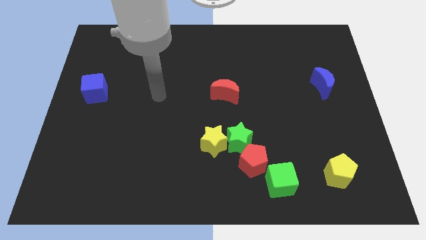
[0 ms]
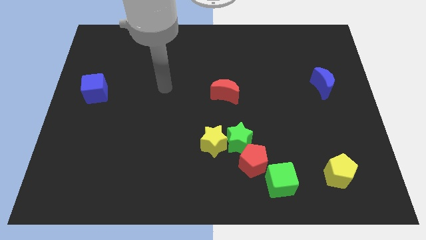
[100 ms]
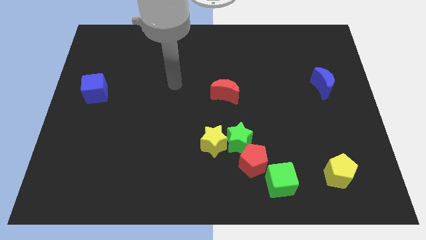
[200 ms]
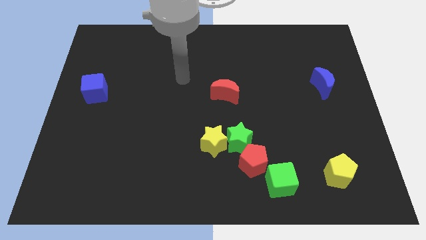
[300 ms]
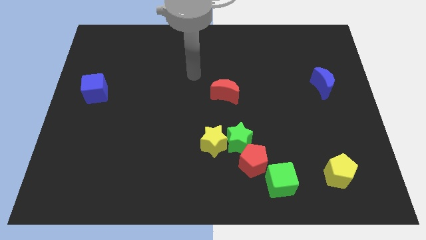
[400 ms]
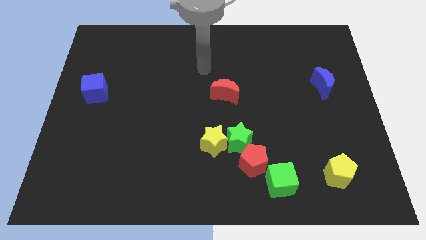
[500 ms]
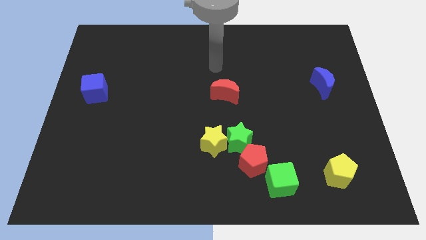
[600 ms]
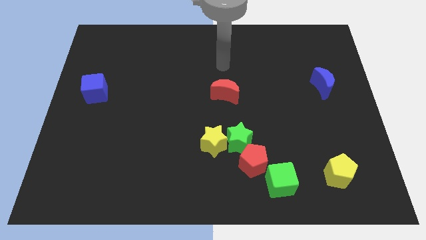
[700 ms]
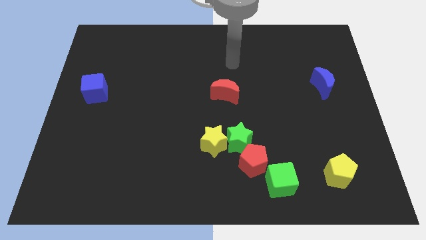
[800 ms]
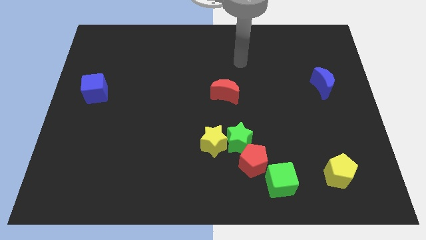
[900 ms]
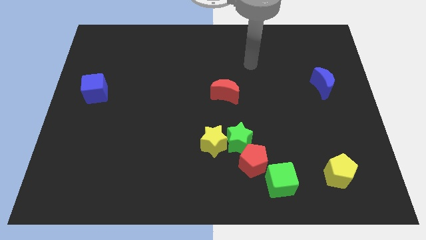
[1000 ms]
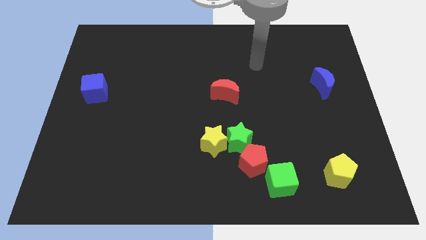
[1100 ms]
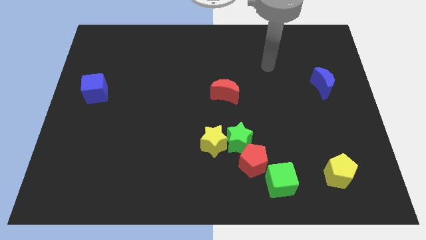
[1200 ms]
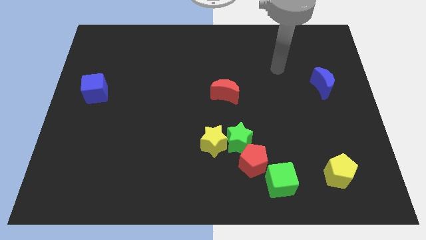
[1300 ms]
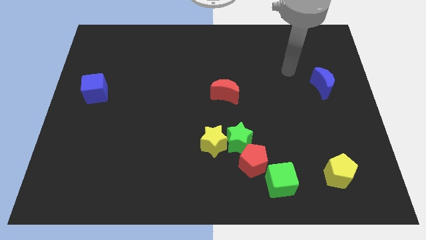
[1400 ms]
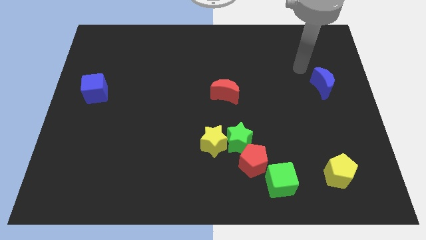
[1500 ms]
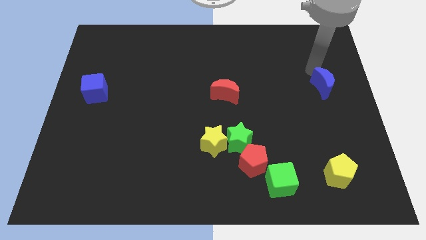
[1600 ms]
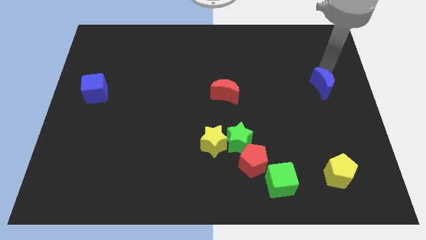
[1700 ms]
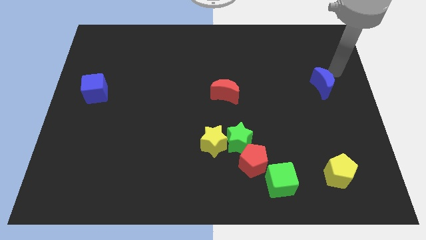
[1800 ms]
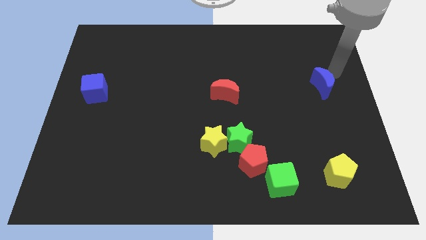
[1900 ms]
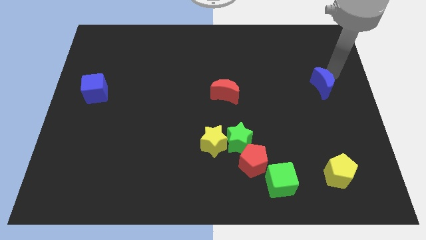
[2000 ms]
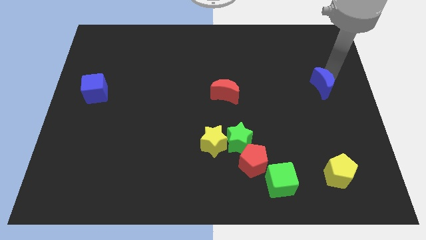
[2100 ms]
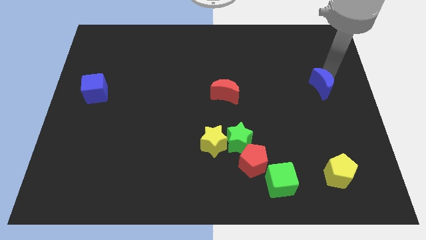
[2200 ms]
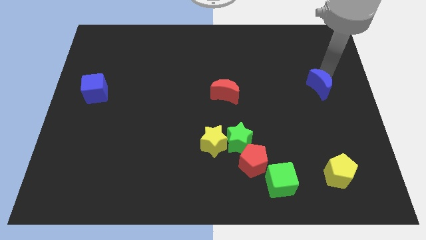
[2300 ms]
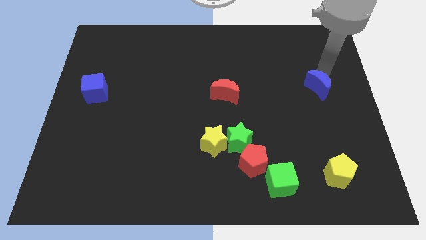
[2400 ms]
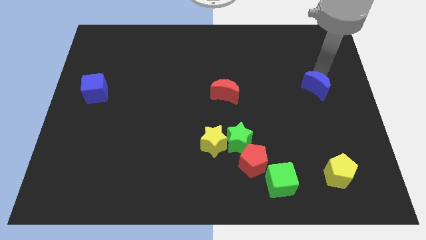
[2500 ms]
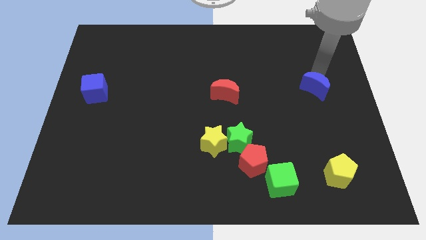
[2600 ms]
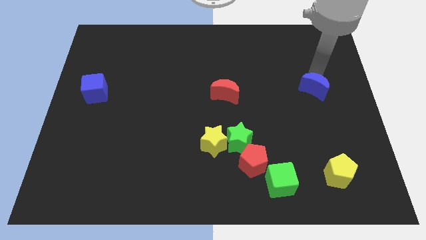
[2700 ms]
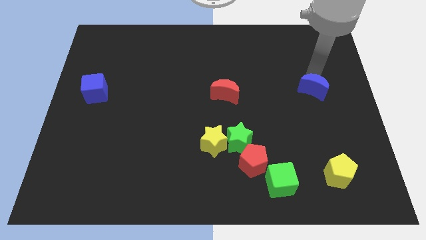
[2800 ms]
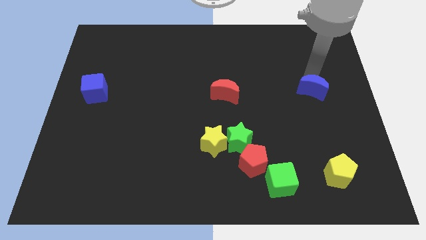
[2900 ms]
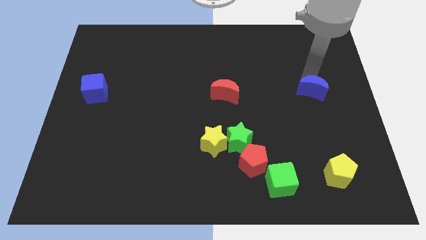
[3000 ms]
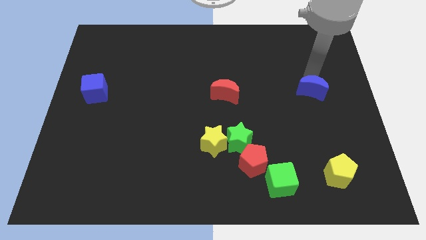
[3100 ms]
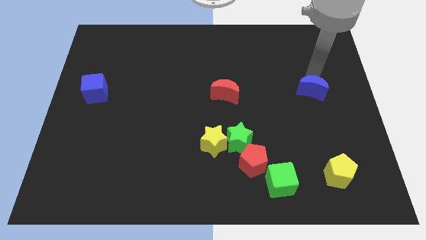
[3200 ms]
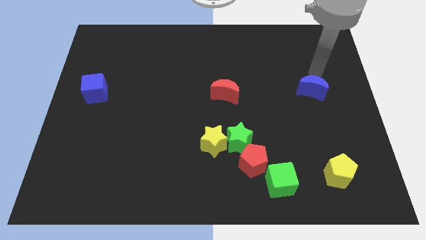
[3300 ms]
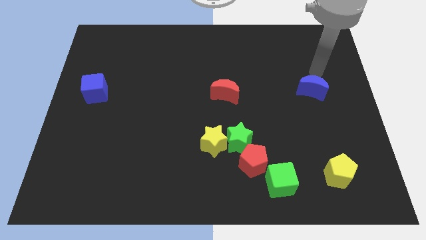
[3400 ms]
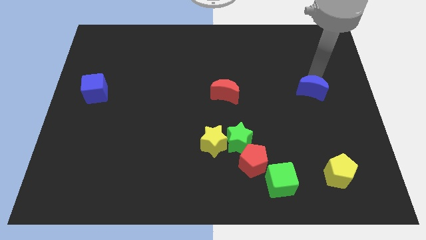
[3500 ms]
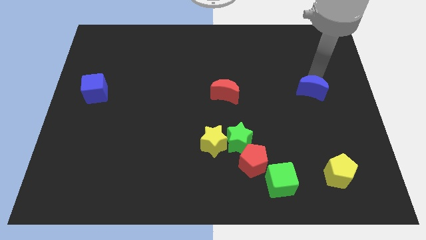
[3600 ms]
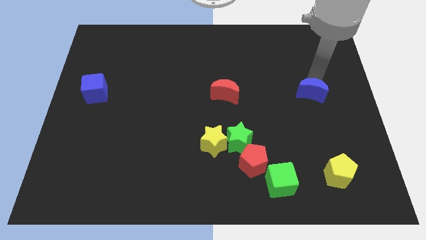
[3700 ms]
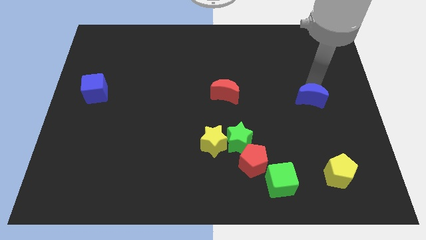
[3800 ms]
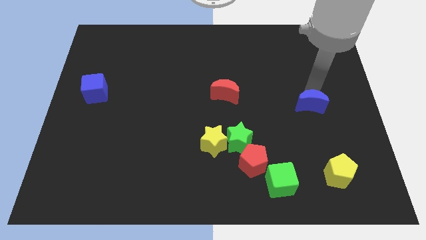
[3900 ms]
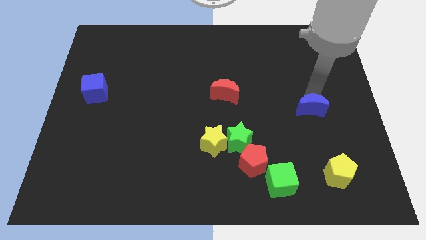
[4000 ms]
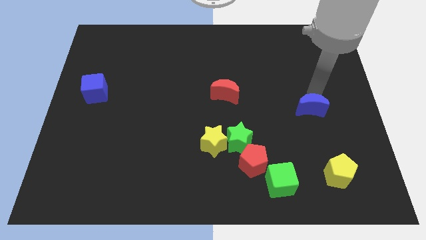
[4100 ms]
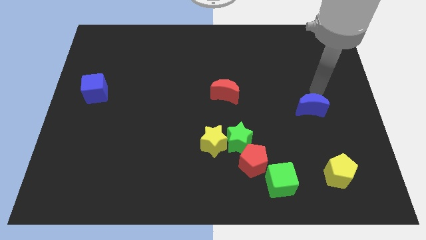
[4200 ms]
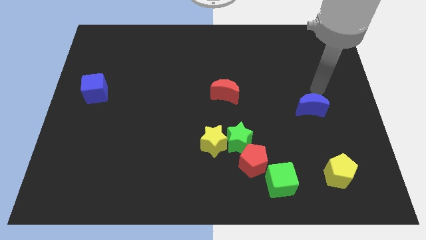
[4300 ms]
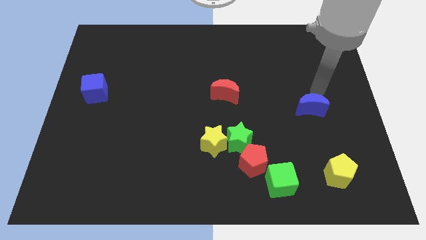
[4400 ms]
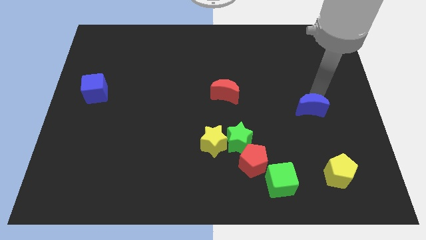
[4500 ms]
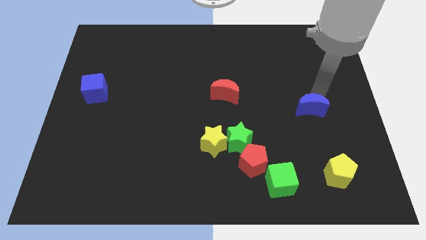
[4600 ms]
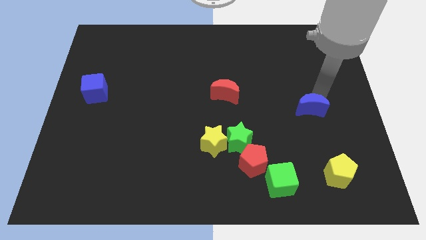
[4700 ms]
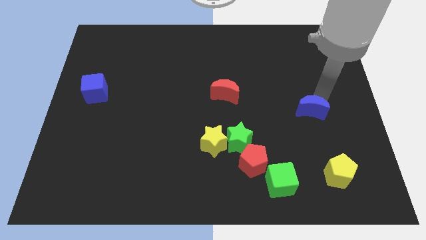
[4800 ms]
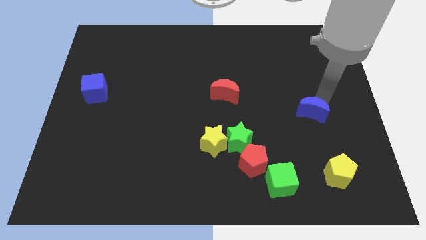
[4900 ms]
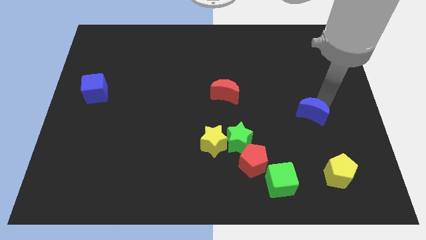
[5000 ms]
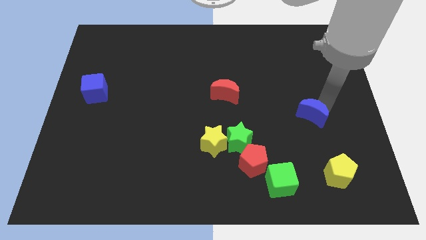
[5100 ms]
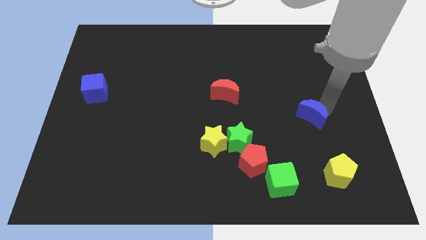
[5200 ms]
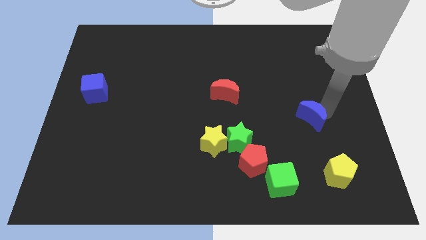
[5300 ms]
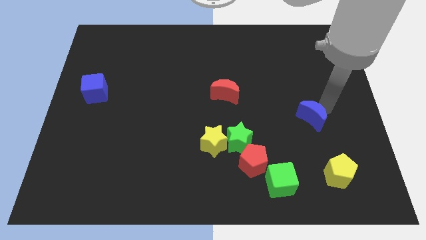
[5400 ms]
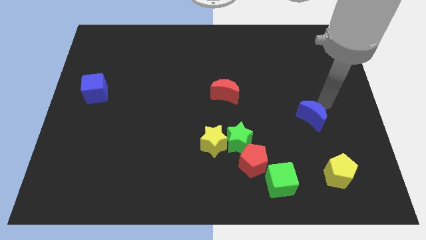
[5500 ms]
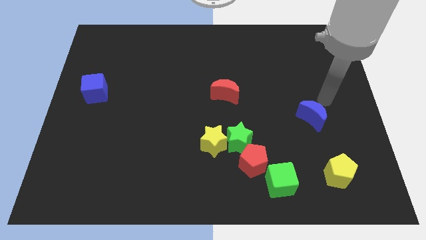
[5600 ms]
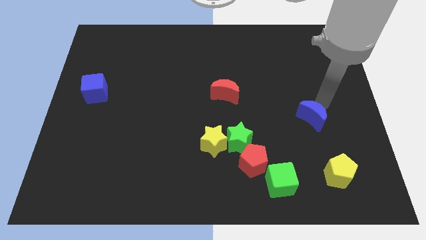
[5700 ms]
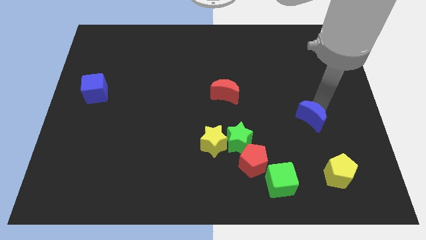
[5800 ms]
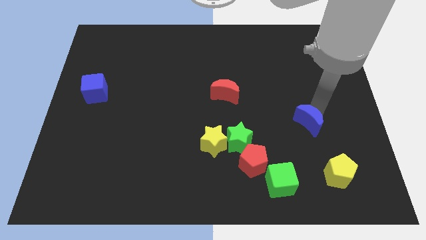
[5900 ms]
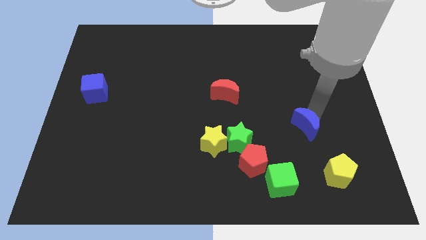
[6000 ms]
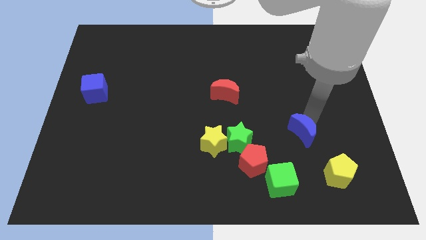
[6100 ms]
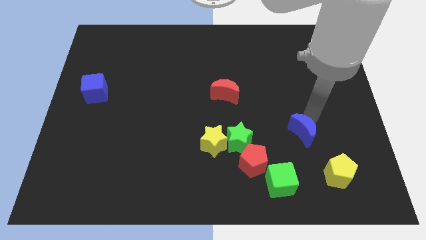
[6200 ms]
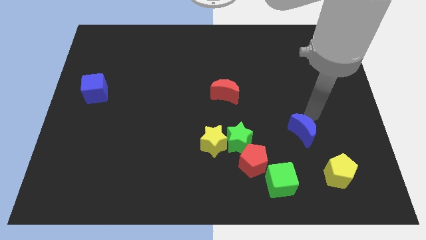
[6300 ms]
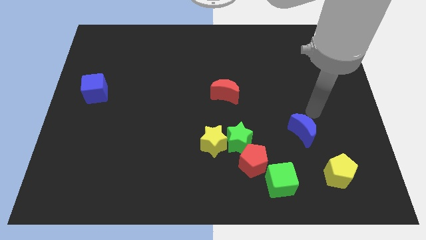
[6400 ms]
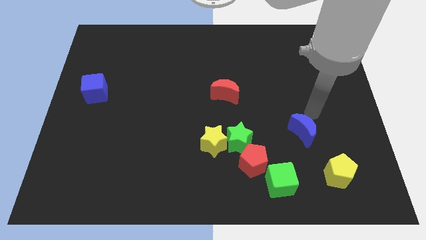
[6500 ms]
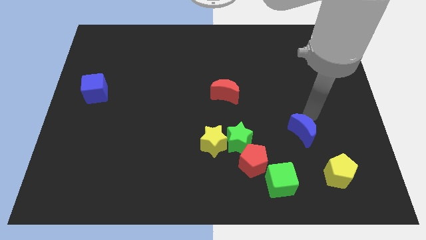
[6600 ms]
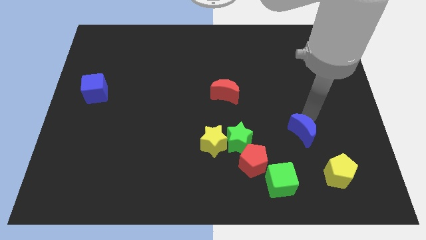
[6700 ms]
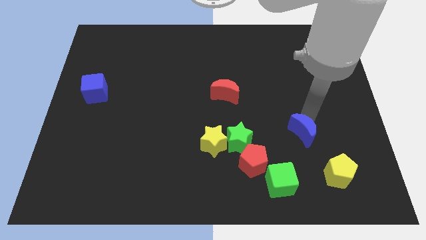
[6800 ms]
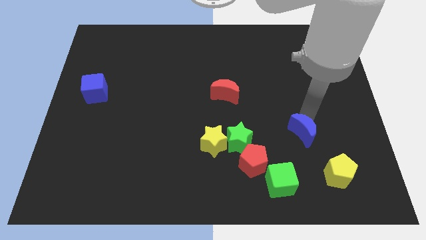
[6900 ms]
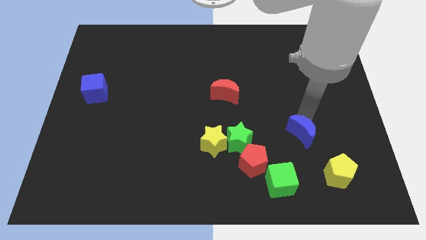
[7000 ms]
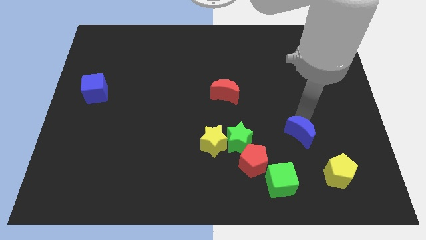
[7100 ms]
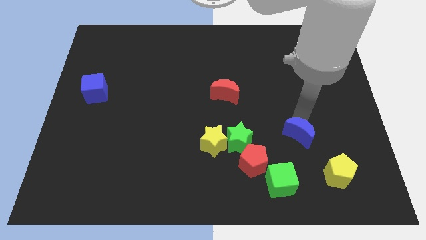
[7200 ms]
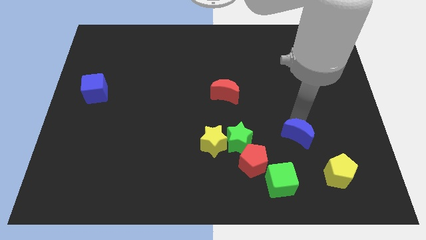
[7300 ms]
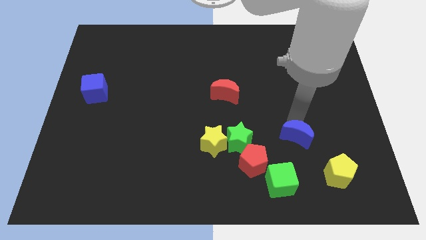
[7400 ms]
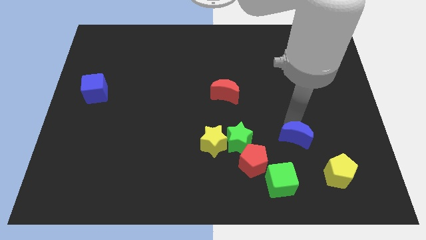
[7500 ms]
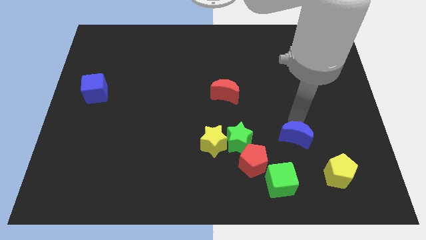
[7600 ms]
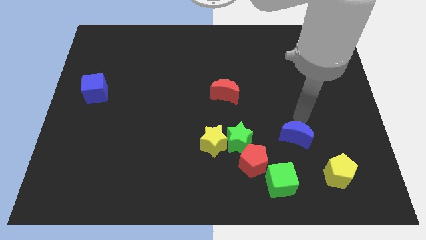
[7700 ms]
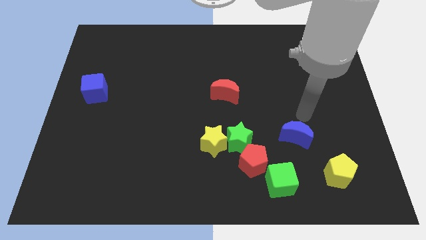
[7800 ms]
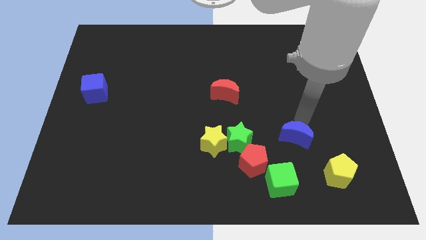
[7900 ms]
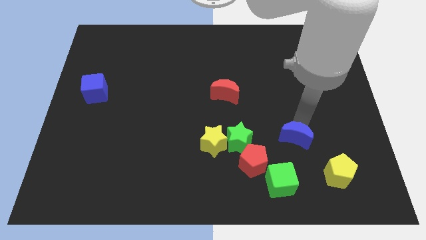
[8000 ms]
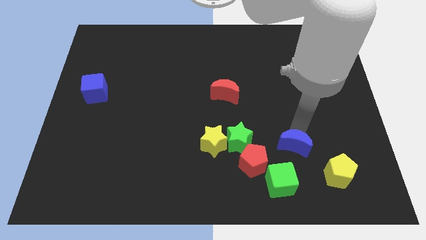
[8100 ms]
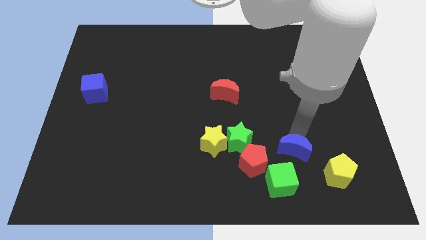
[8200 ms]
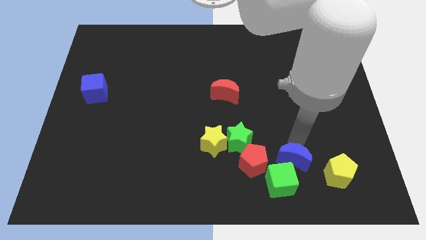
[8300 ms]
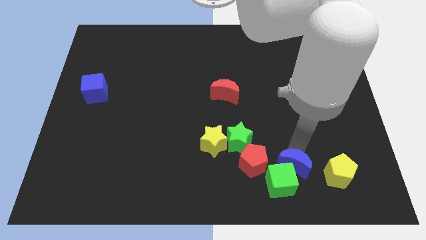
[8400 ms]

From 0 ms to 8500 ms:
put the blue moon next to the green cube
